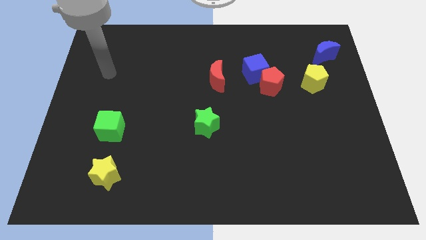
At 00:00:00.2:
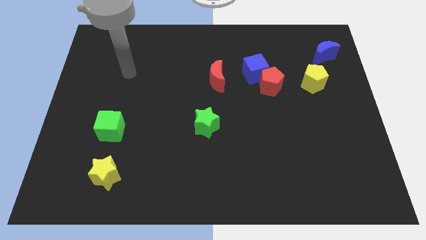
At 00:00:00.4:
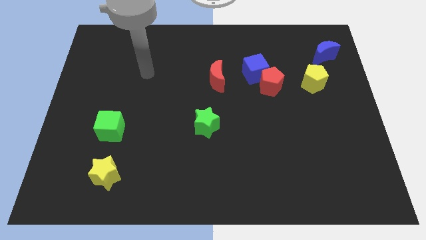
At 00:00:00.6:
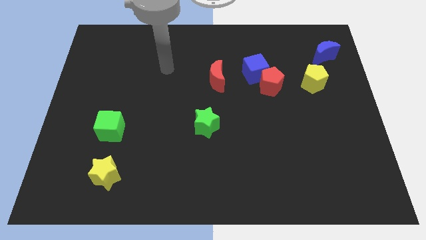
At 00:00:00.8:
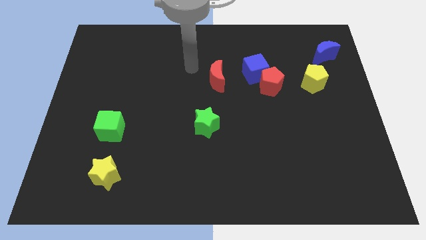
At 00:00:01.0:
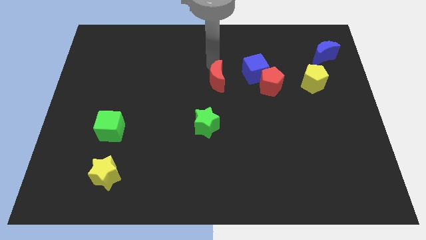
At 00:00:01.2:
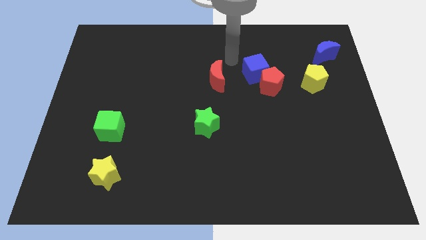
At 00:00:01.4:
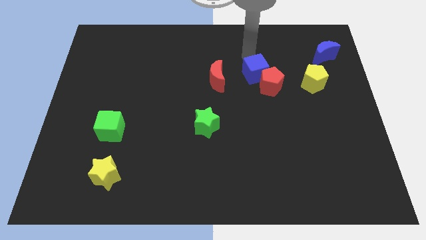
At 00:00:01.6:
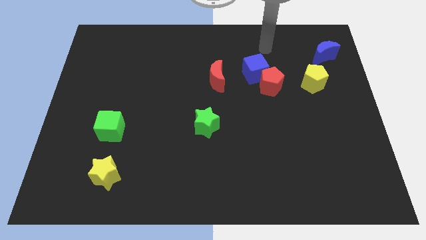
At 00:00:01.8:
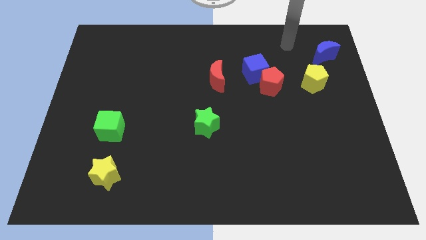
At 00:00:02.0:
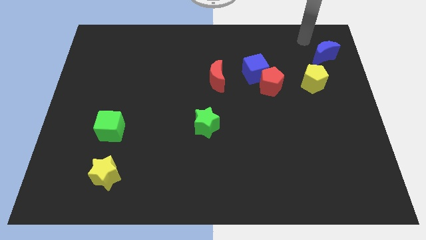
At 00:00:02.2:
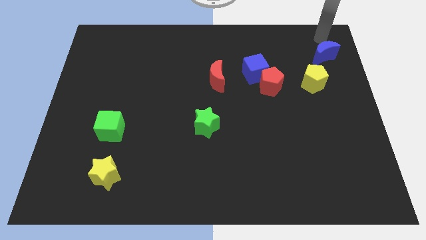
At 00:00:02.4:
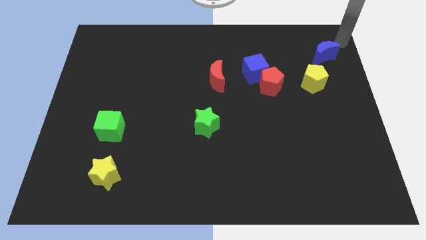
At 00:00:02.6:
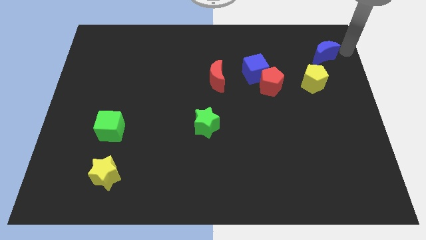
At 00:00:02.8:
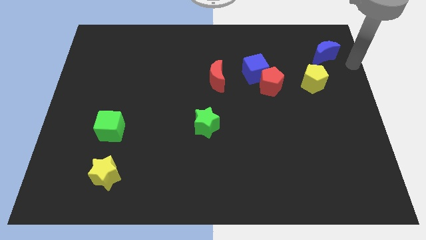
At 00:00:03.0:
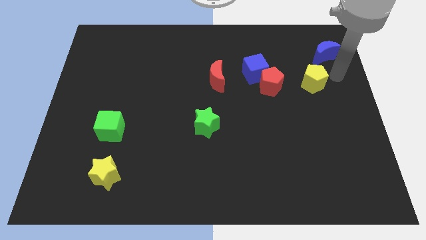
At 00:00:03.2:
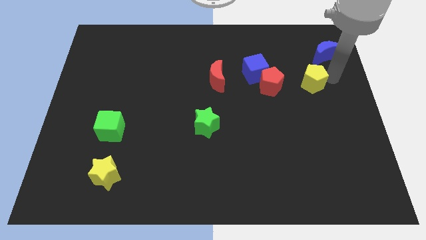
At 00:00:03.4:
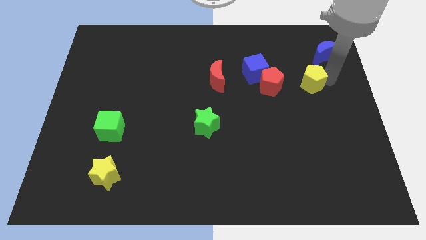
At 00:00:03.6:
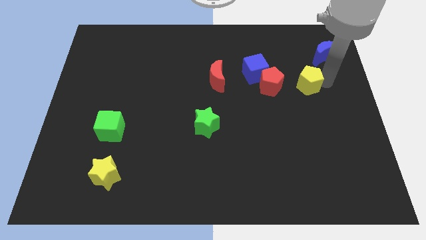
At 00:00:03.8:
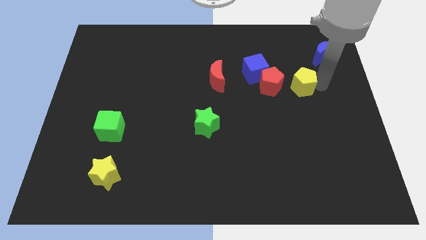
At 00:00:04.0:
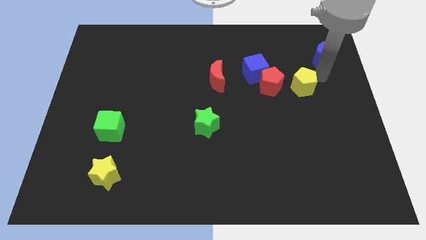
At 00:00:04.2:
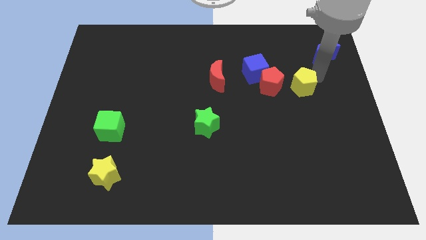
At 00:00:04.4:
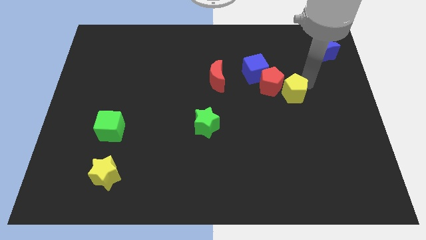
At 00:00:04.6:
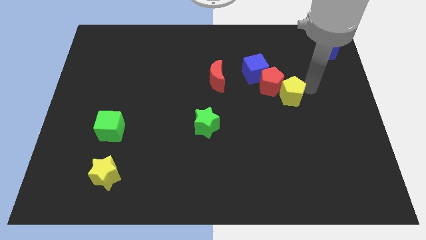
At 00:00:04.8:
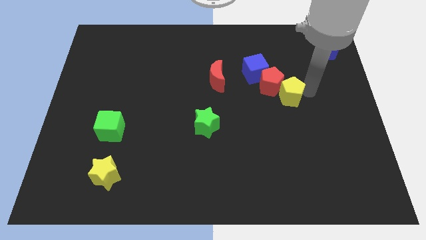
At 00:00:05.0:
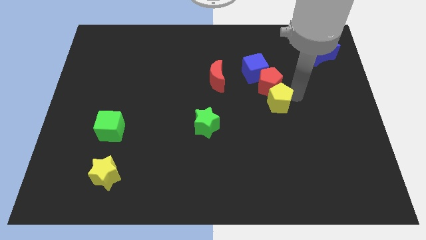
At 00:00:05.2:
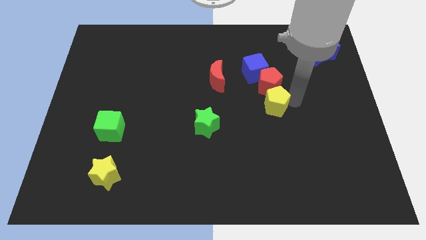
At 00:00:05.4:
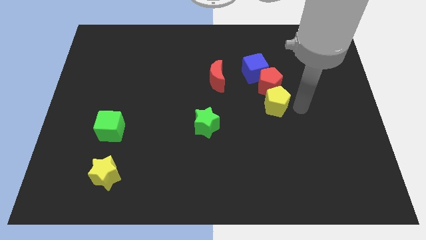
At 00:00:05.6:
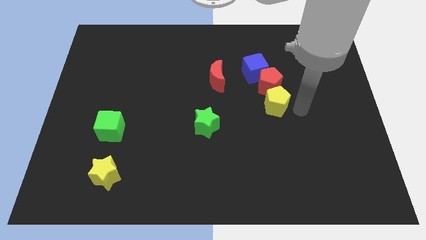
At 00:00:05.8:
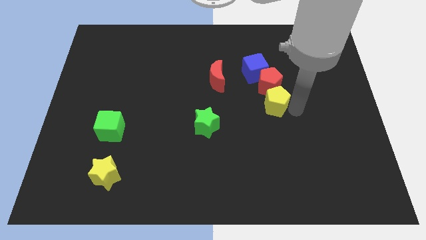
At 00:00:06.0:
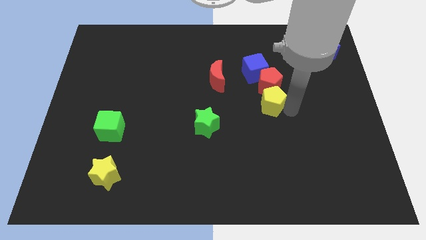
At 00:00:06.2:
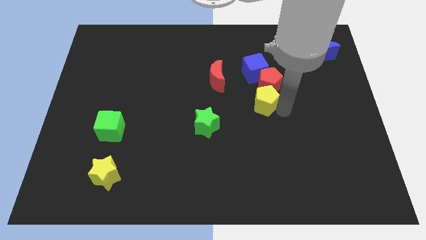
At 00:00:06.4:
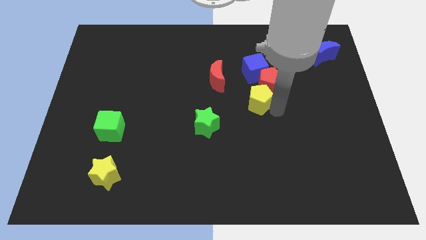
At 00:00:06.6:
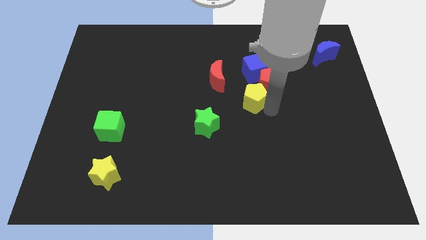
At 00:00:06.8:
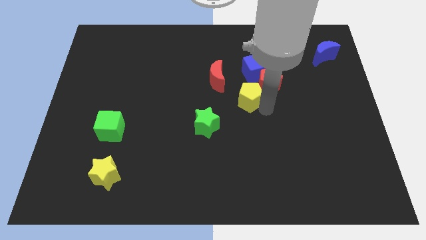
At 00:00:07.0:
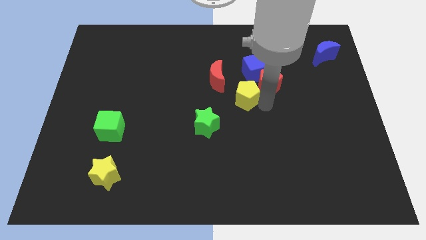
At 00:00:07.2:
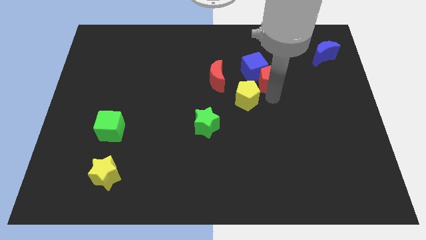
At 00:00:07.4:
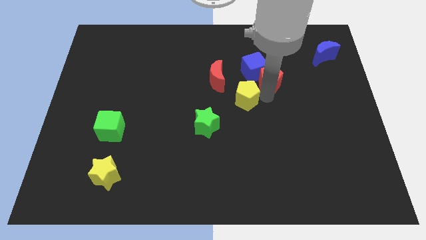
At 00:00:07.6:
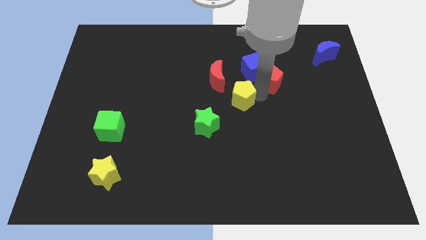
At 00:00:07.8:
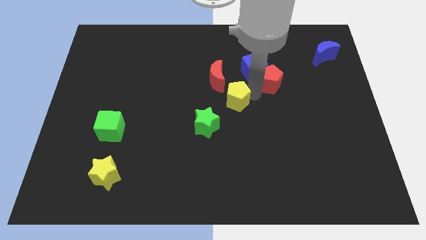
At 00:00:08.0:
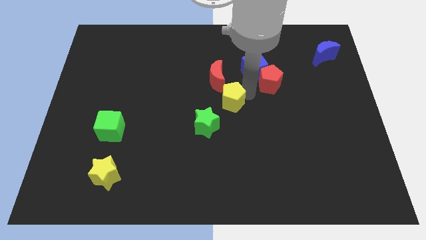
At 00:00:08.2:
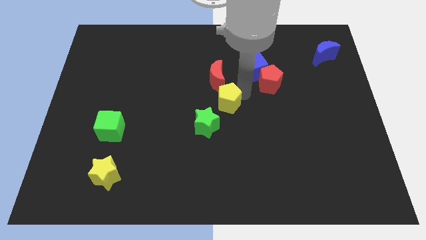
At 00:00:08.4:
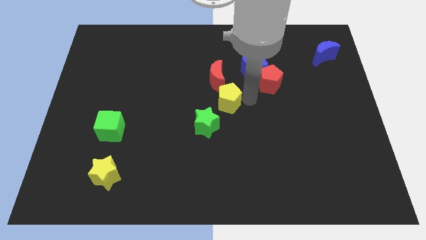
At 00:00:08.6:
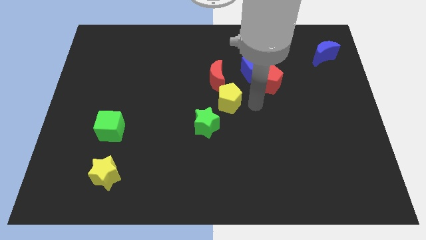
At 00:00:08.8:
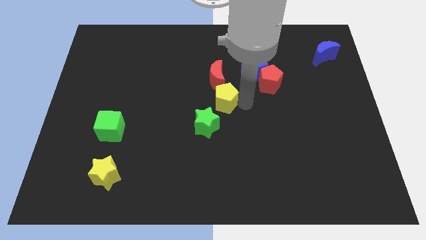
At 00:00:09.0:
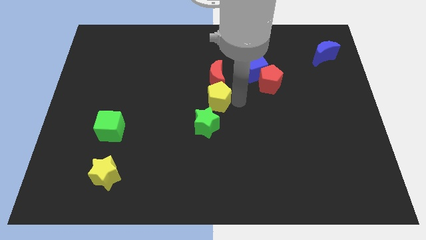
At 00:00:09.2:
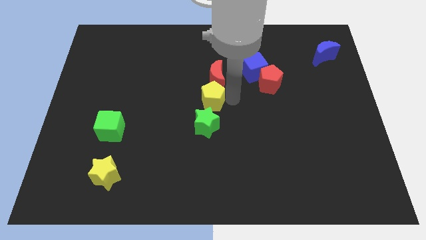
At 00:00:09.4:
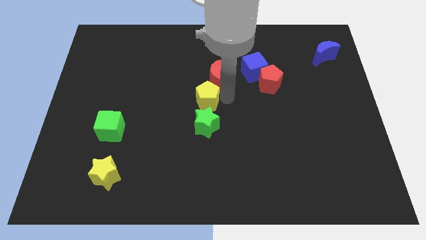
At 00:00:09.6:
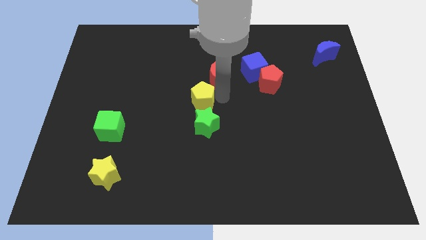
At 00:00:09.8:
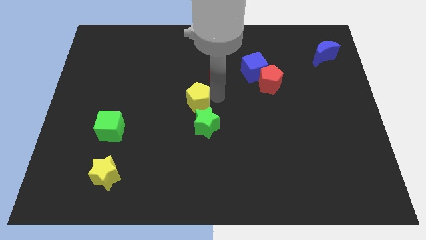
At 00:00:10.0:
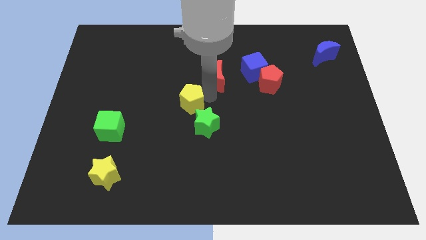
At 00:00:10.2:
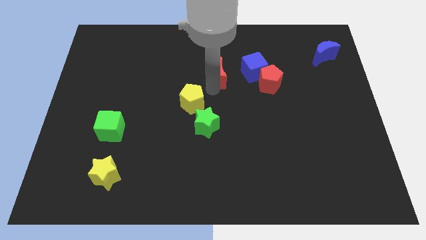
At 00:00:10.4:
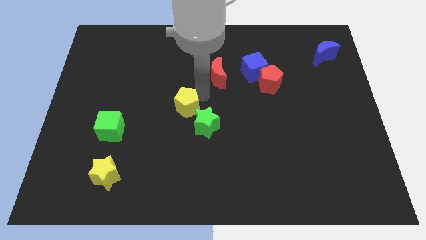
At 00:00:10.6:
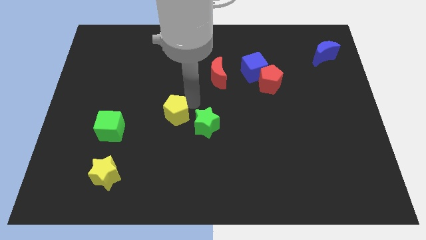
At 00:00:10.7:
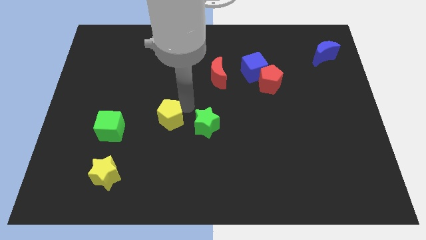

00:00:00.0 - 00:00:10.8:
slide the yellow pentagon just right of the green cube

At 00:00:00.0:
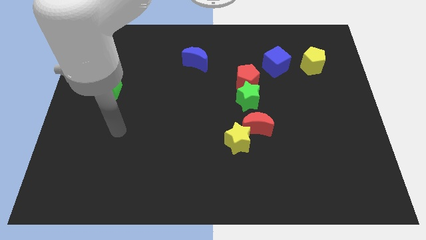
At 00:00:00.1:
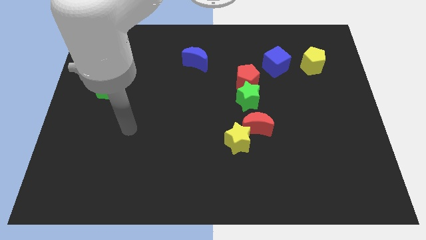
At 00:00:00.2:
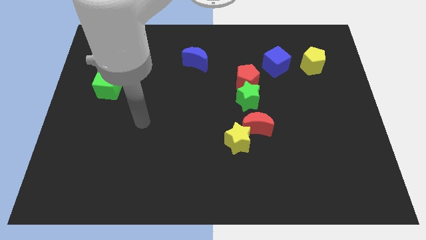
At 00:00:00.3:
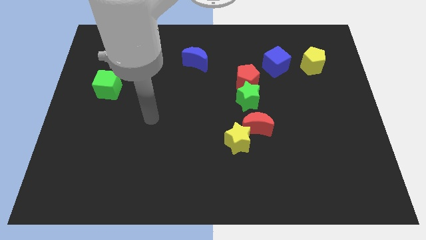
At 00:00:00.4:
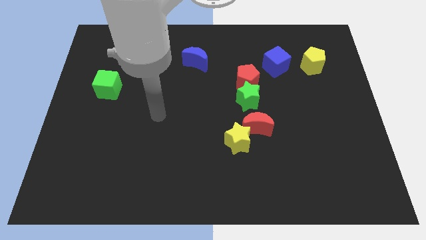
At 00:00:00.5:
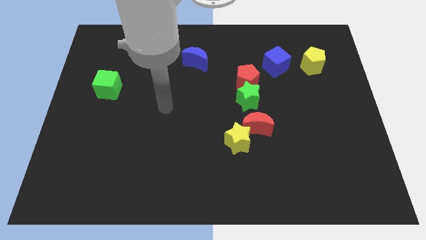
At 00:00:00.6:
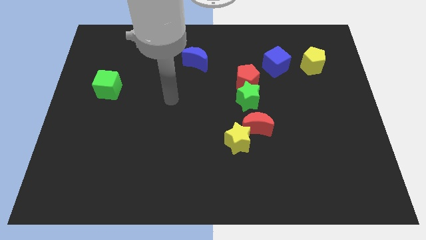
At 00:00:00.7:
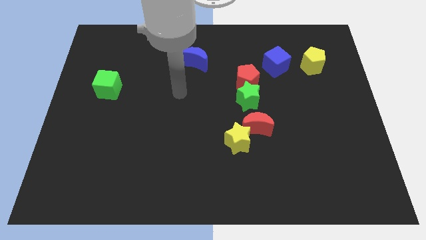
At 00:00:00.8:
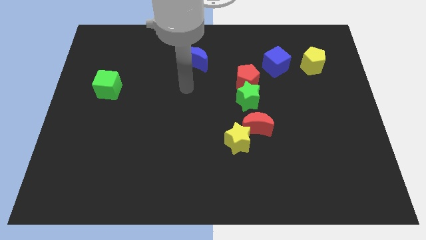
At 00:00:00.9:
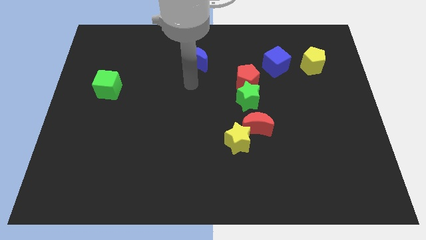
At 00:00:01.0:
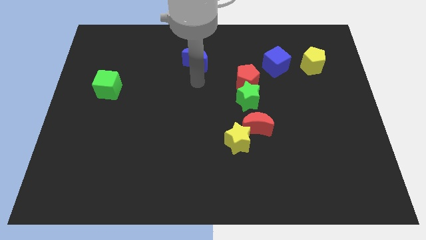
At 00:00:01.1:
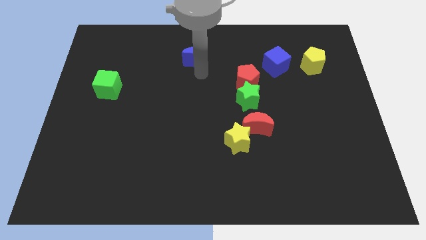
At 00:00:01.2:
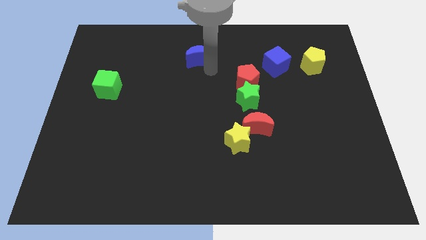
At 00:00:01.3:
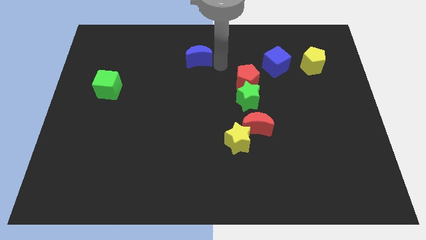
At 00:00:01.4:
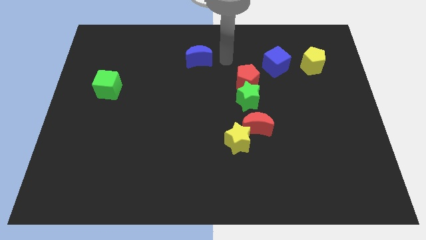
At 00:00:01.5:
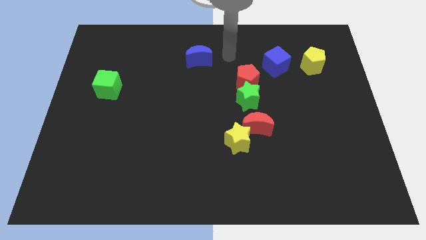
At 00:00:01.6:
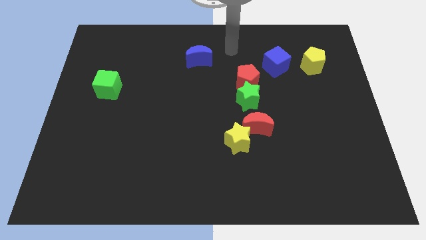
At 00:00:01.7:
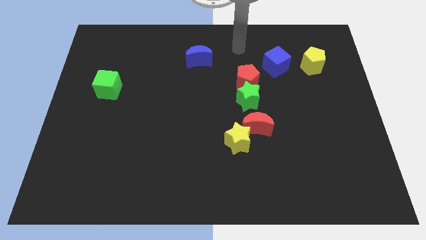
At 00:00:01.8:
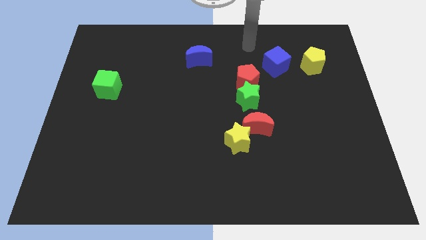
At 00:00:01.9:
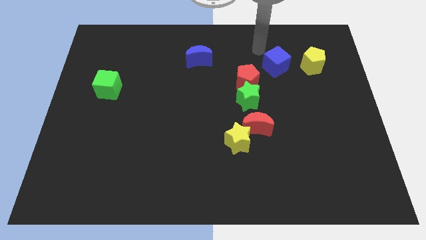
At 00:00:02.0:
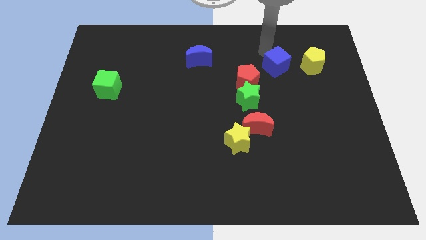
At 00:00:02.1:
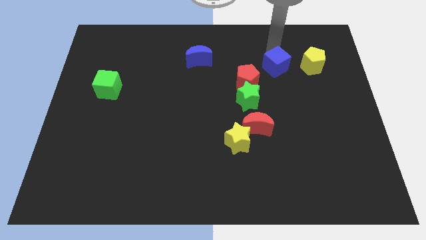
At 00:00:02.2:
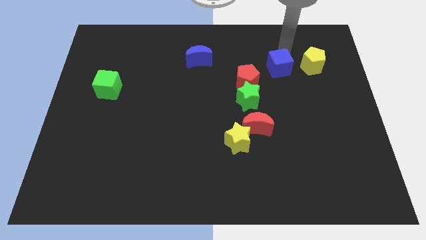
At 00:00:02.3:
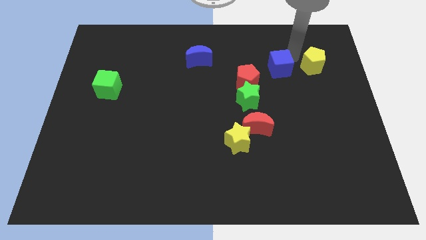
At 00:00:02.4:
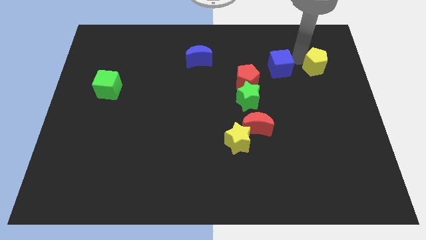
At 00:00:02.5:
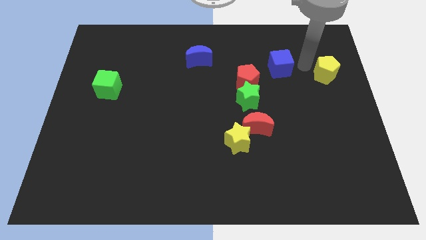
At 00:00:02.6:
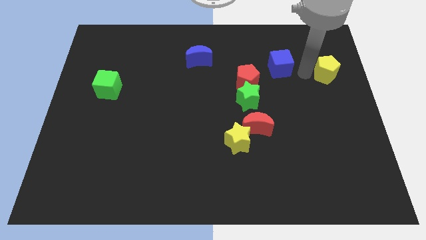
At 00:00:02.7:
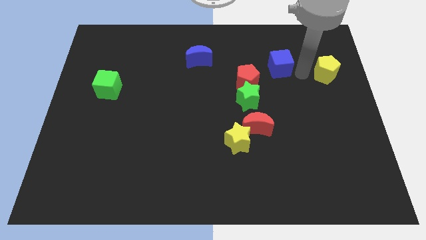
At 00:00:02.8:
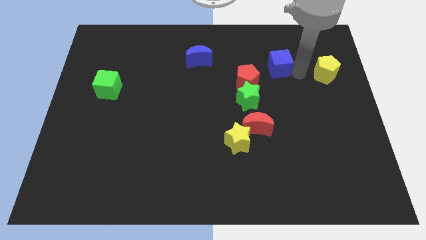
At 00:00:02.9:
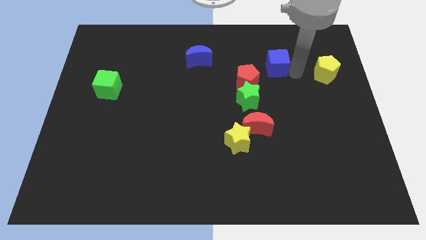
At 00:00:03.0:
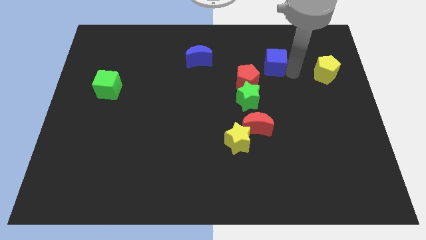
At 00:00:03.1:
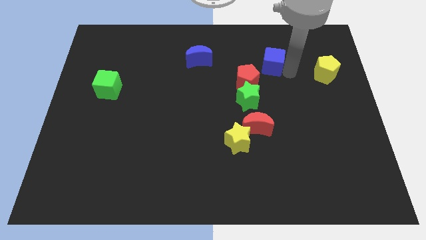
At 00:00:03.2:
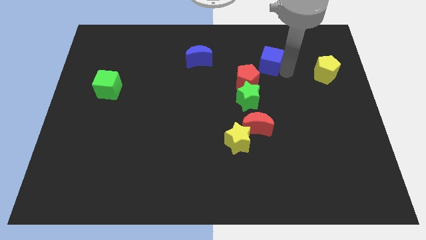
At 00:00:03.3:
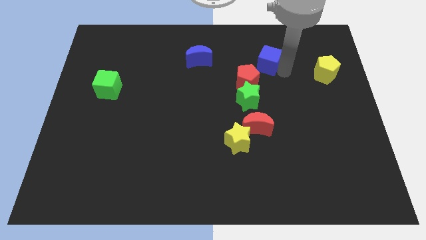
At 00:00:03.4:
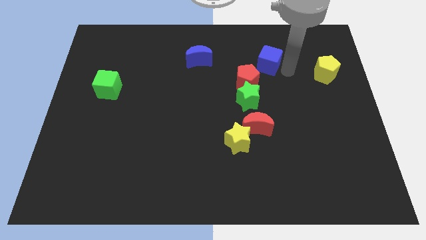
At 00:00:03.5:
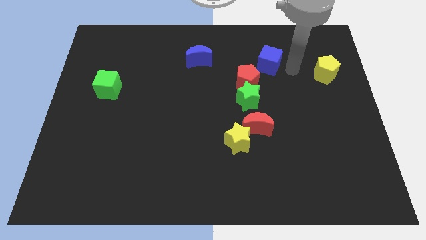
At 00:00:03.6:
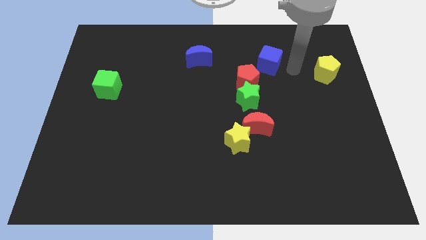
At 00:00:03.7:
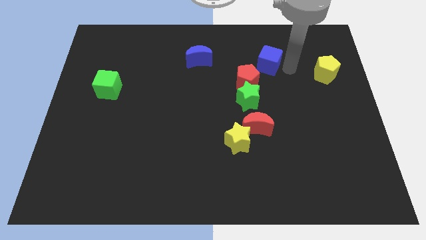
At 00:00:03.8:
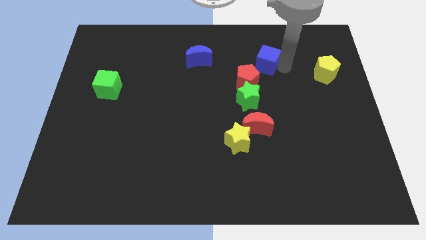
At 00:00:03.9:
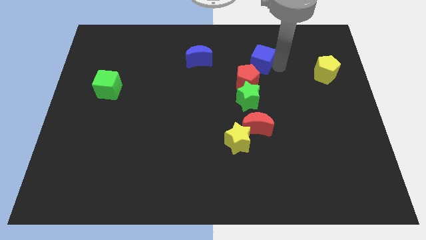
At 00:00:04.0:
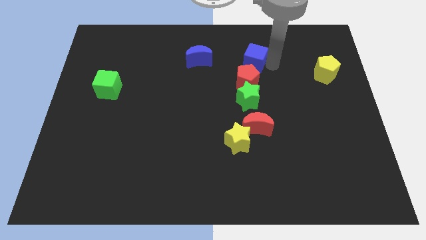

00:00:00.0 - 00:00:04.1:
slide the blue cube to the right of the blue moon
